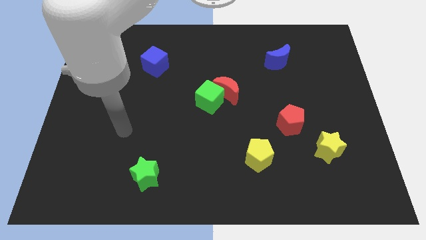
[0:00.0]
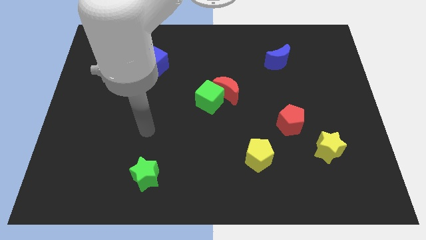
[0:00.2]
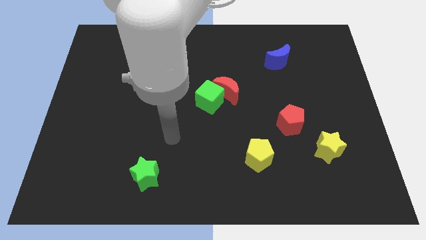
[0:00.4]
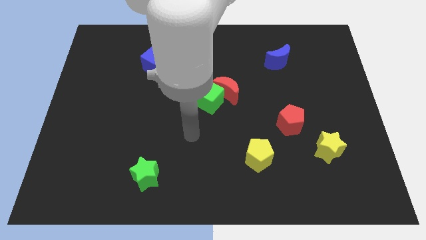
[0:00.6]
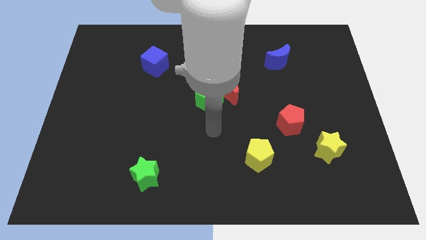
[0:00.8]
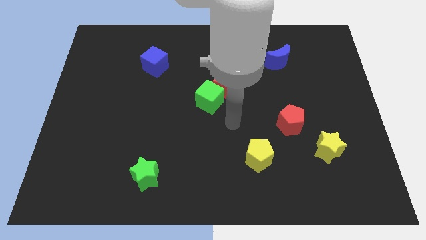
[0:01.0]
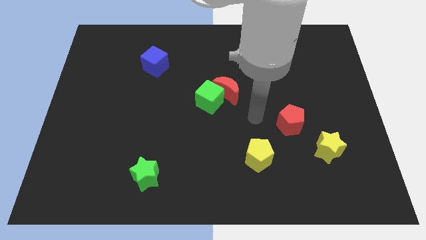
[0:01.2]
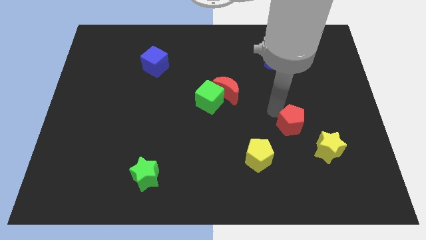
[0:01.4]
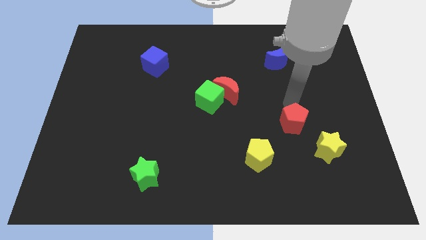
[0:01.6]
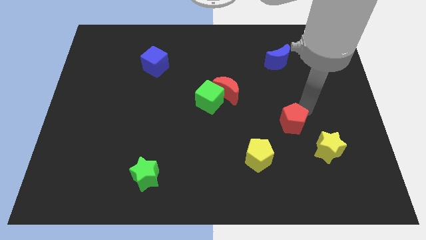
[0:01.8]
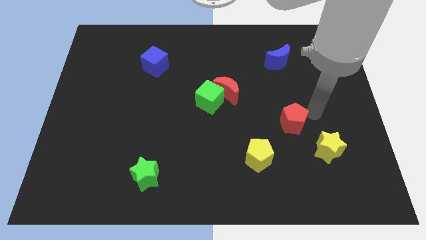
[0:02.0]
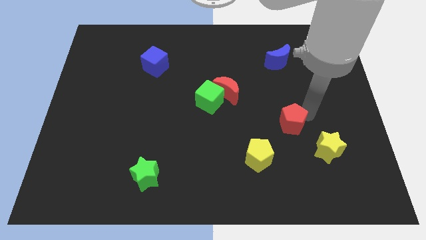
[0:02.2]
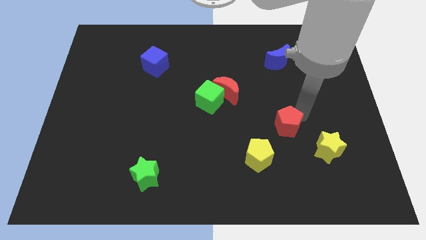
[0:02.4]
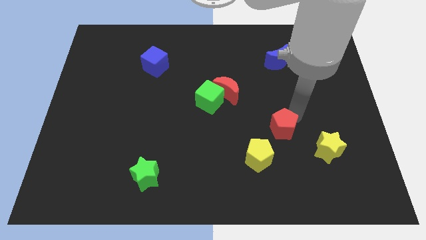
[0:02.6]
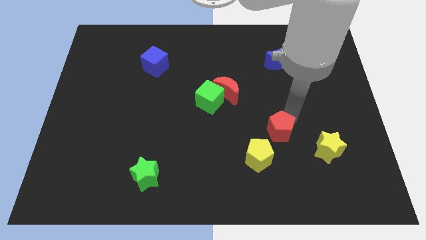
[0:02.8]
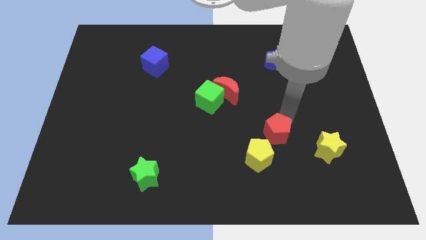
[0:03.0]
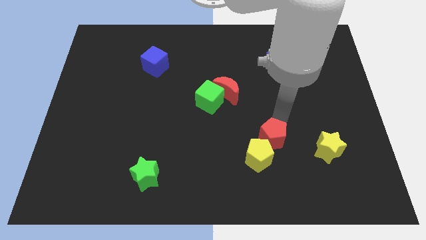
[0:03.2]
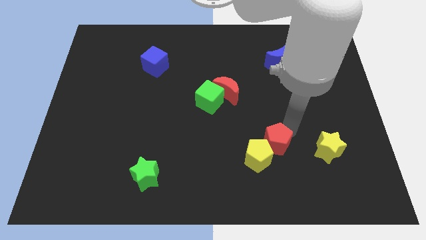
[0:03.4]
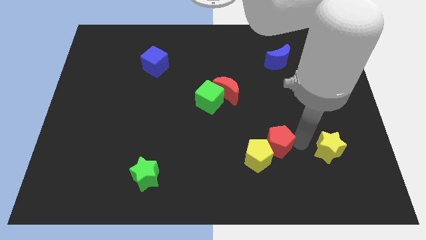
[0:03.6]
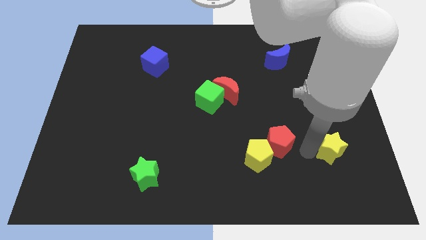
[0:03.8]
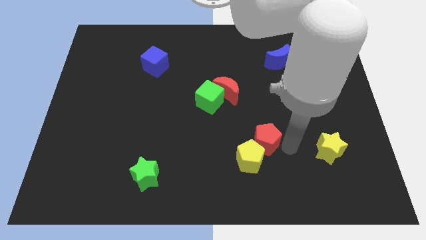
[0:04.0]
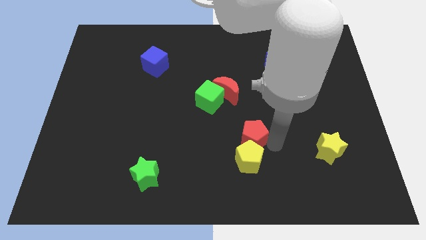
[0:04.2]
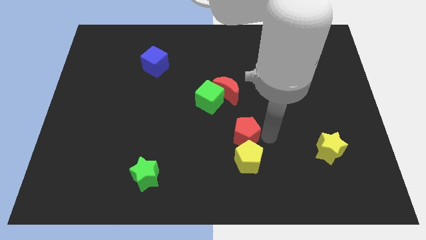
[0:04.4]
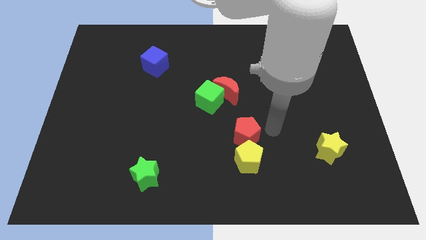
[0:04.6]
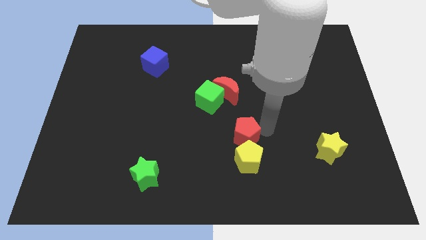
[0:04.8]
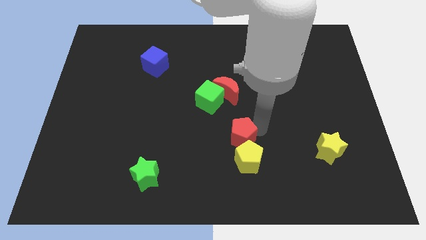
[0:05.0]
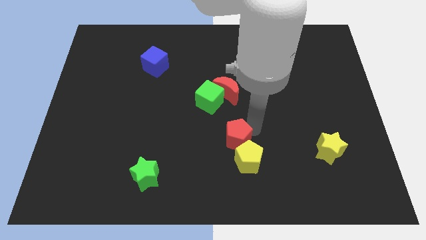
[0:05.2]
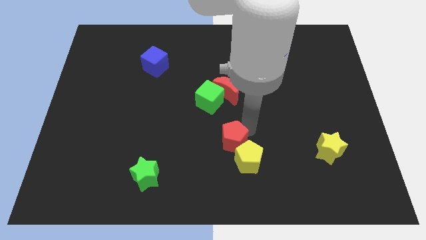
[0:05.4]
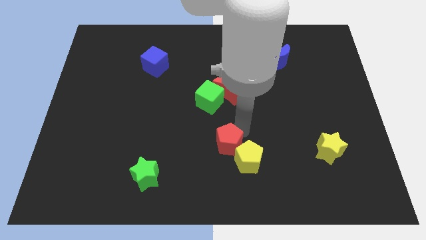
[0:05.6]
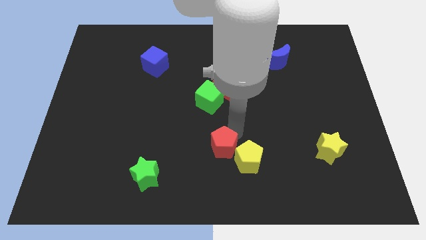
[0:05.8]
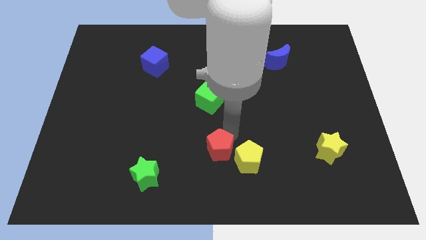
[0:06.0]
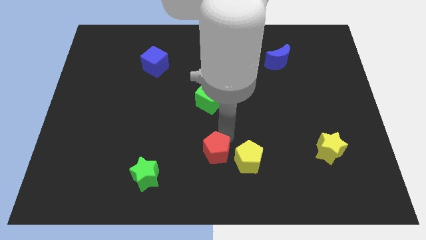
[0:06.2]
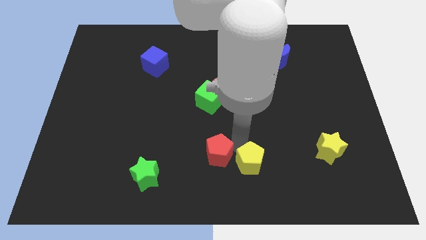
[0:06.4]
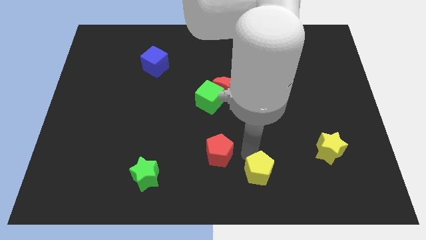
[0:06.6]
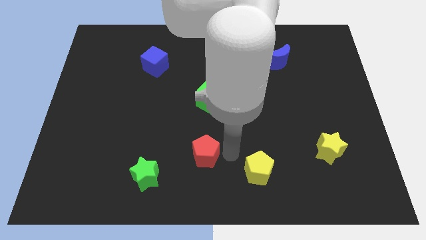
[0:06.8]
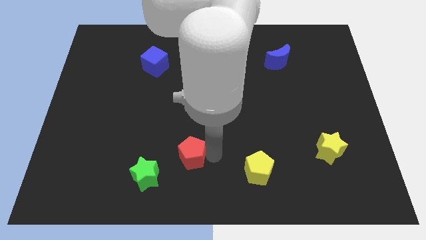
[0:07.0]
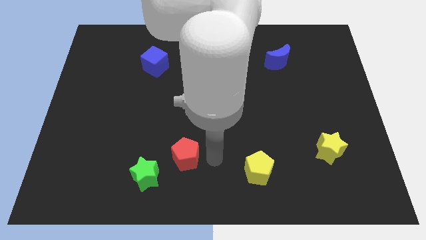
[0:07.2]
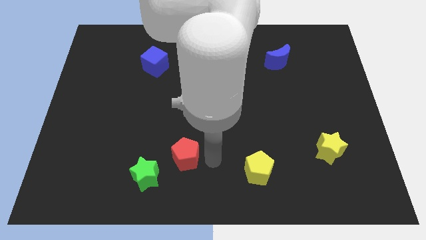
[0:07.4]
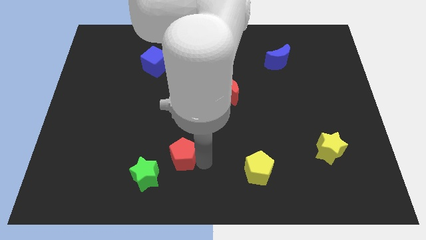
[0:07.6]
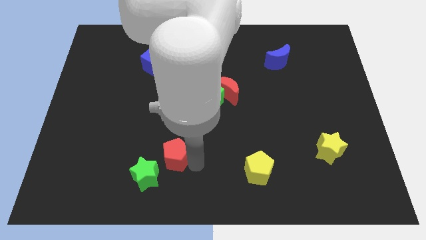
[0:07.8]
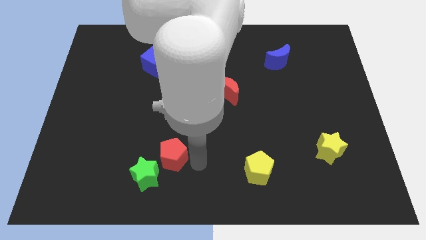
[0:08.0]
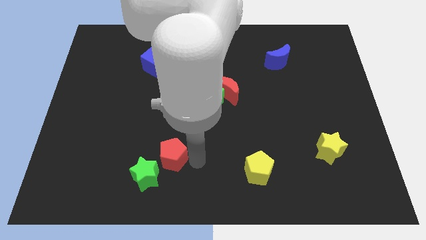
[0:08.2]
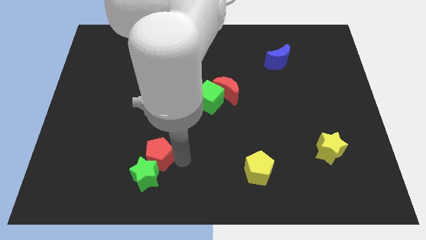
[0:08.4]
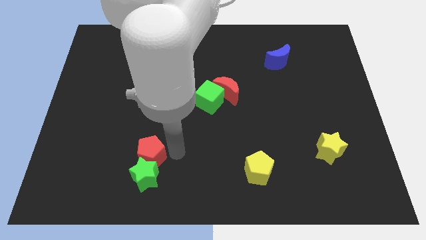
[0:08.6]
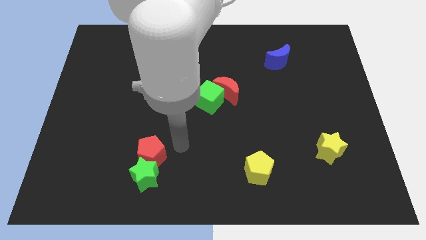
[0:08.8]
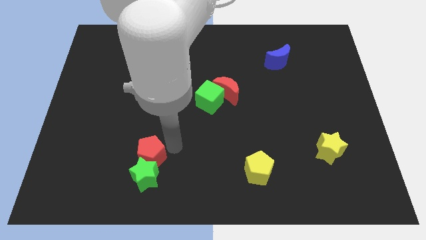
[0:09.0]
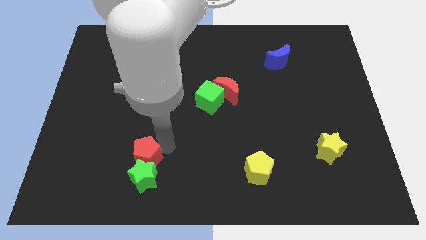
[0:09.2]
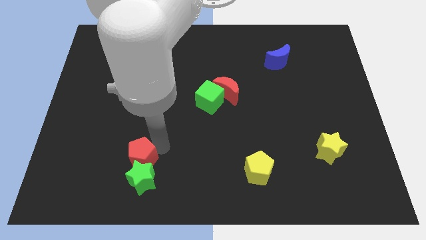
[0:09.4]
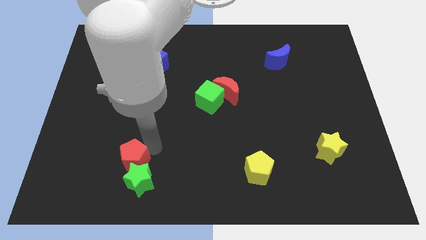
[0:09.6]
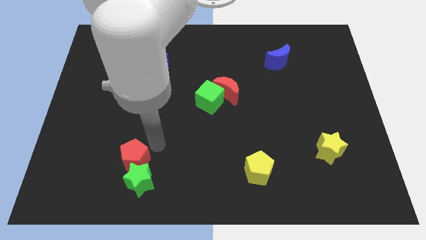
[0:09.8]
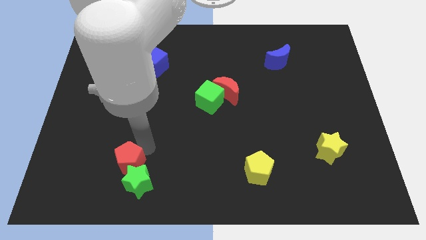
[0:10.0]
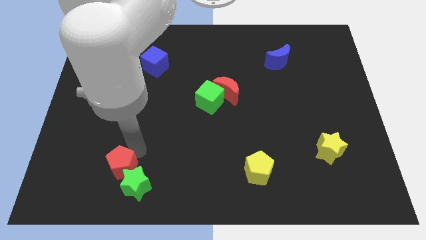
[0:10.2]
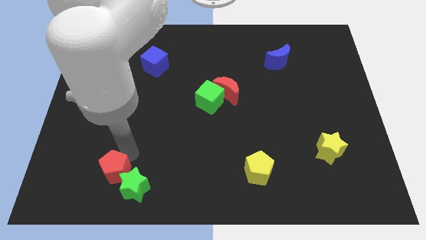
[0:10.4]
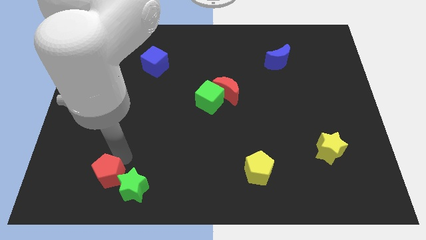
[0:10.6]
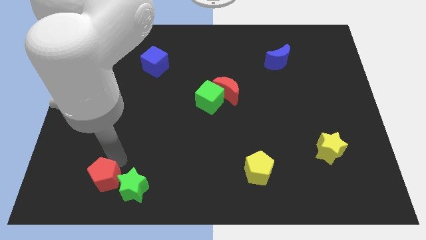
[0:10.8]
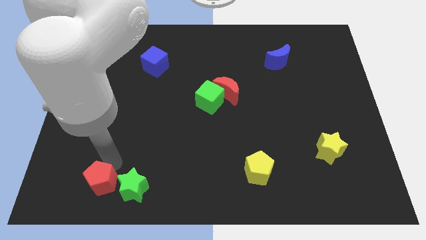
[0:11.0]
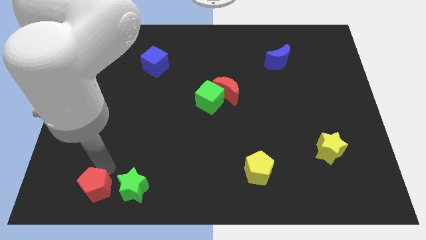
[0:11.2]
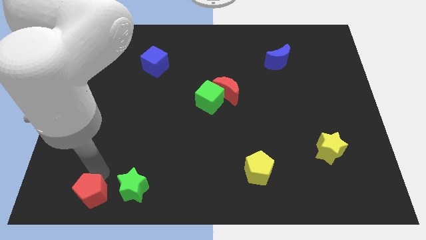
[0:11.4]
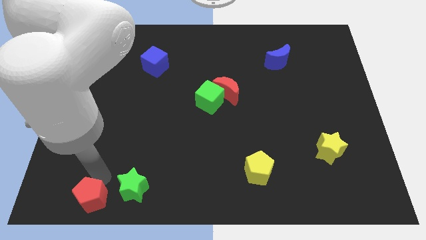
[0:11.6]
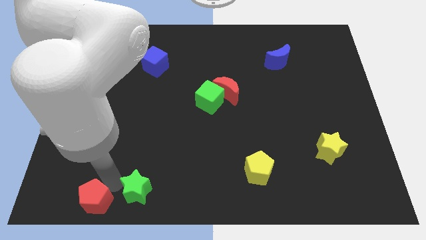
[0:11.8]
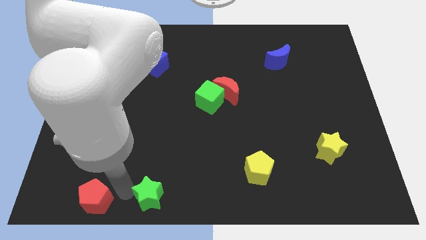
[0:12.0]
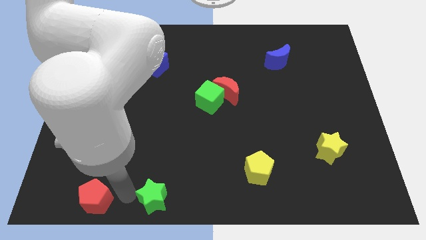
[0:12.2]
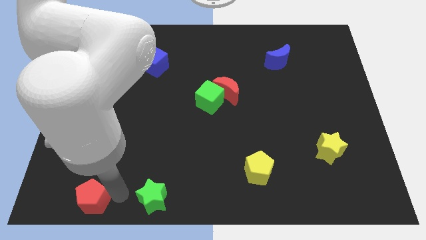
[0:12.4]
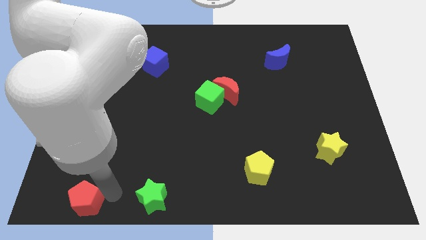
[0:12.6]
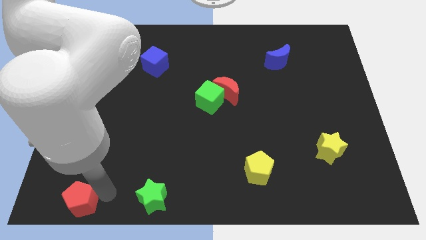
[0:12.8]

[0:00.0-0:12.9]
slide the red pentagon to the bottom left corner
